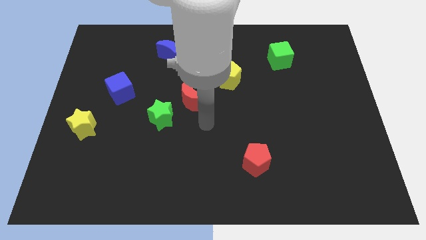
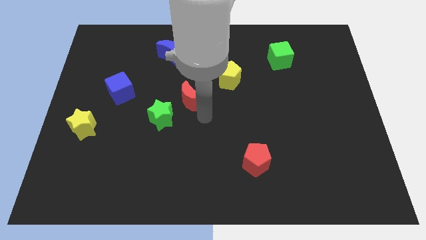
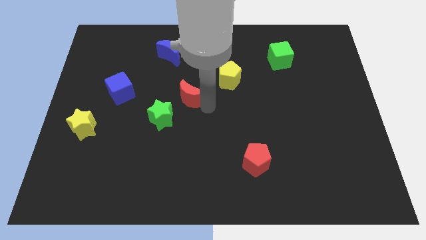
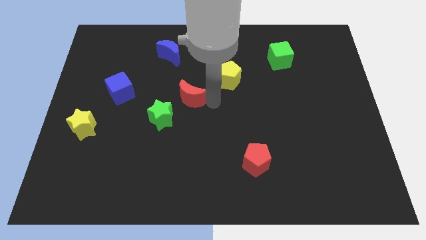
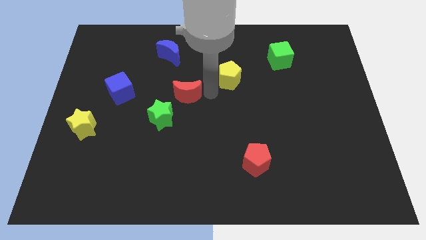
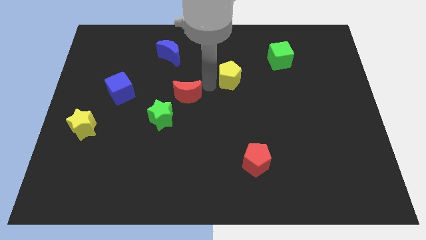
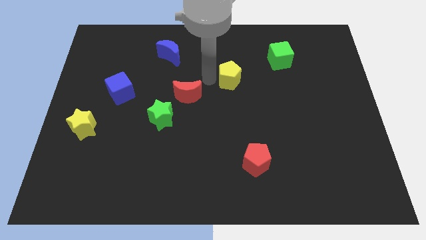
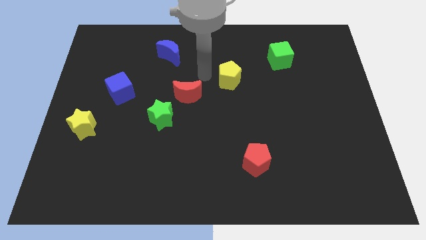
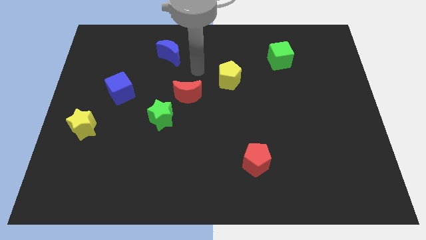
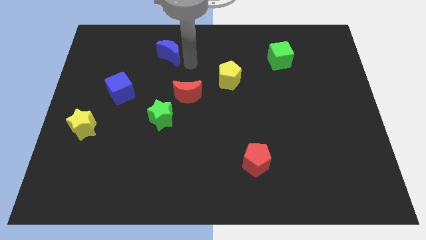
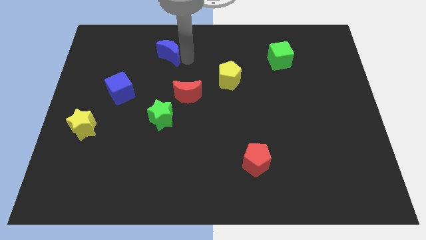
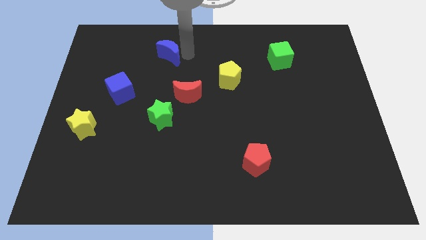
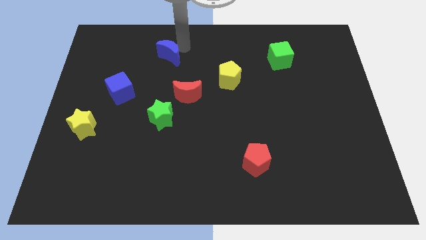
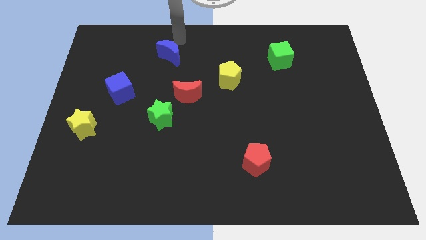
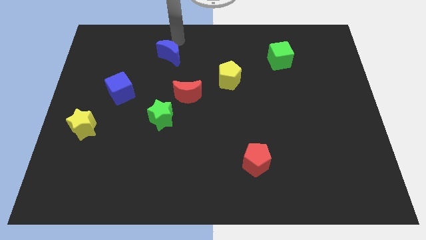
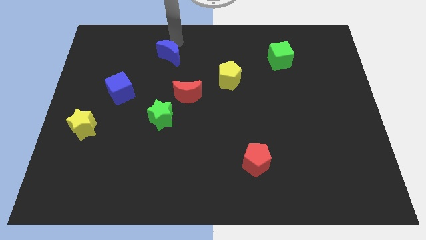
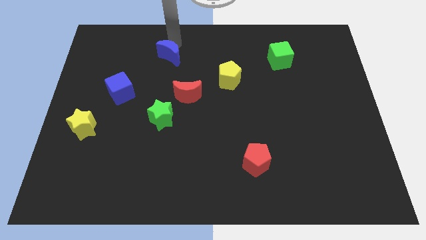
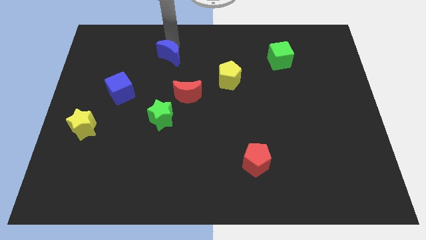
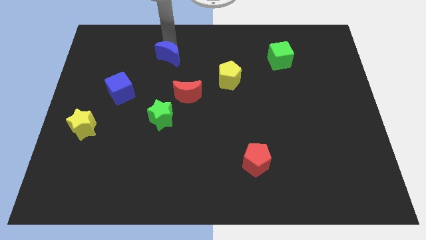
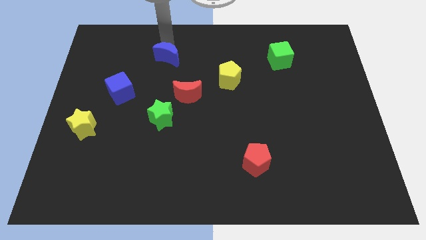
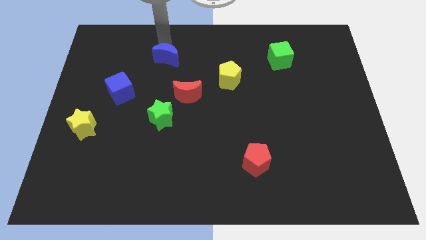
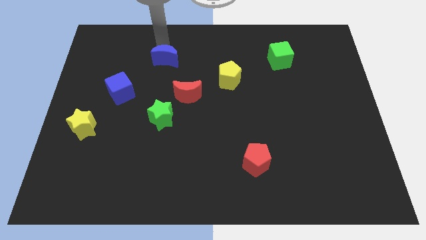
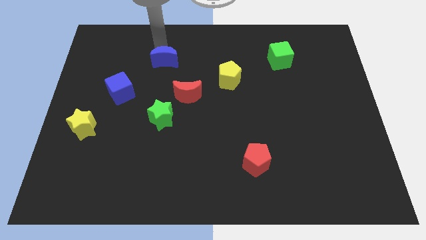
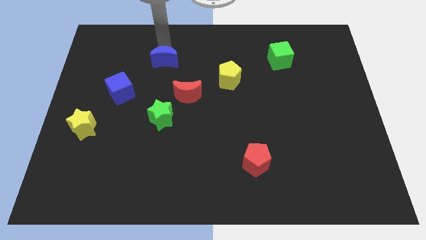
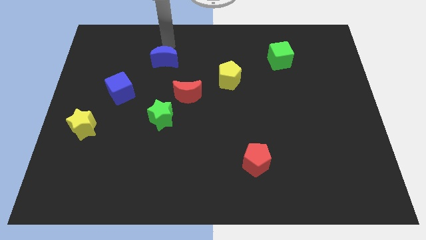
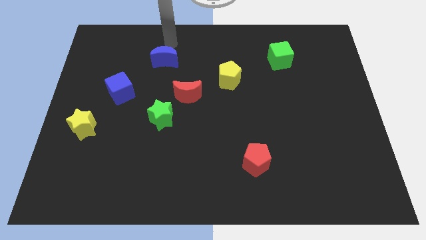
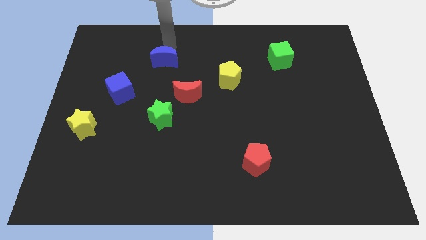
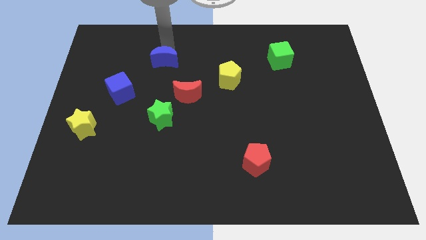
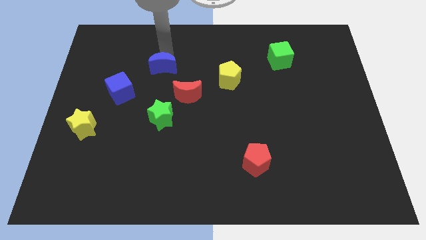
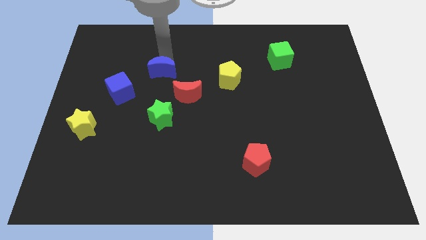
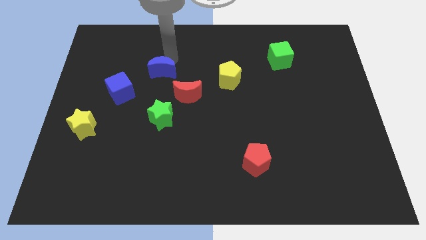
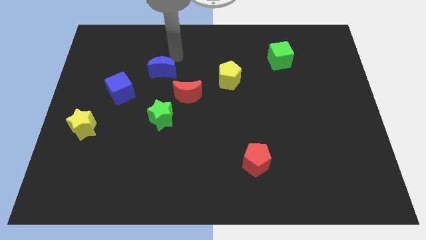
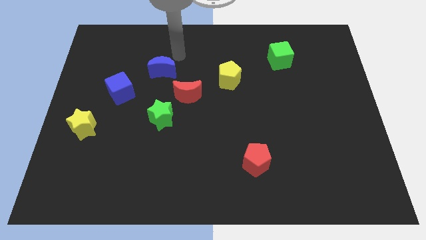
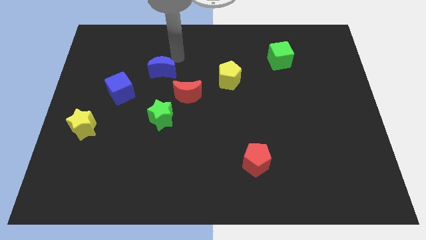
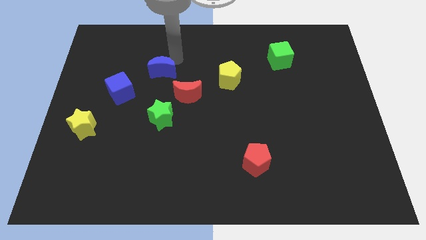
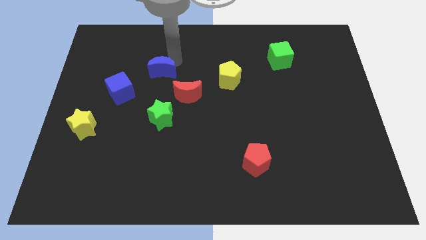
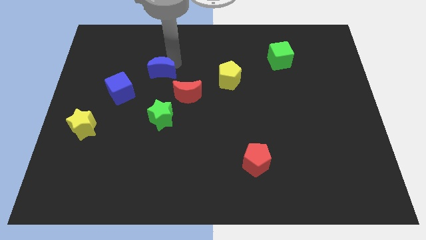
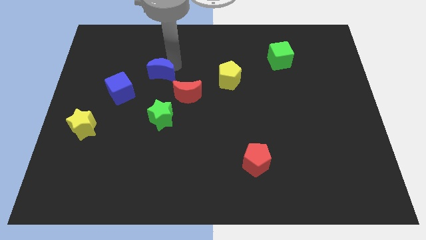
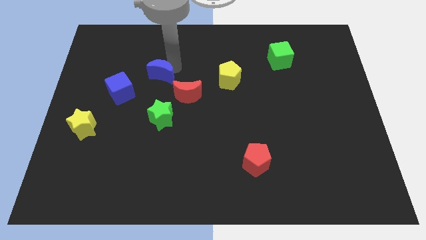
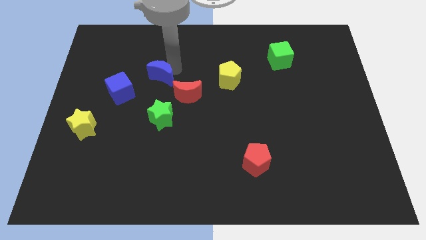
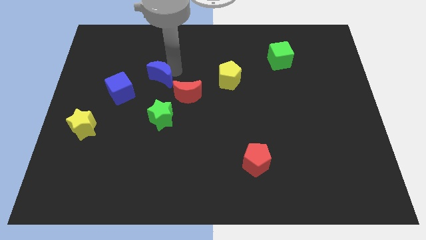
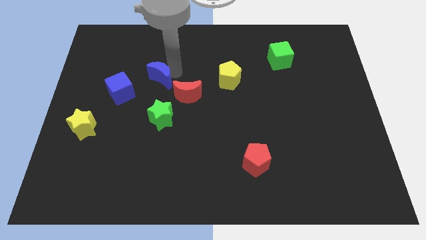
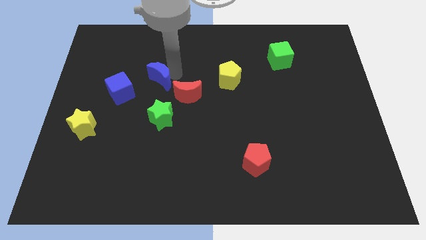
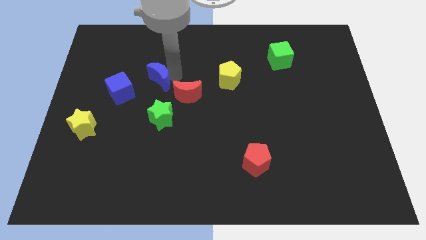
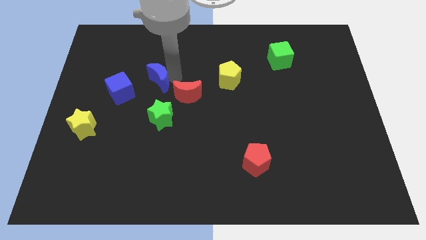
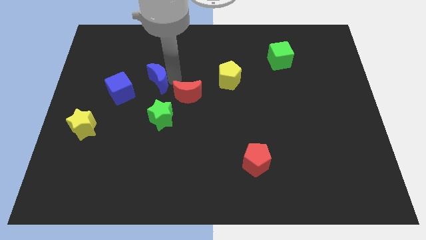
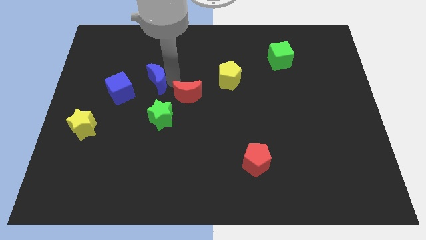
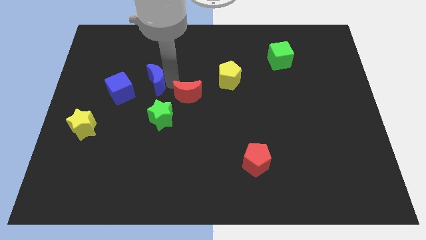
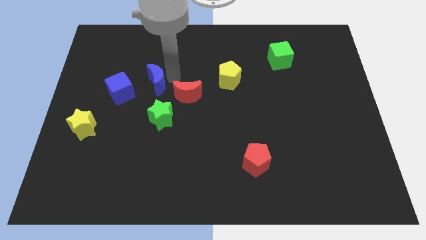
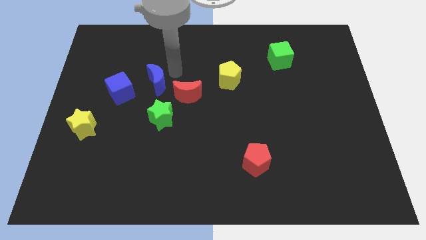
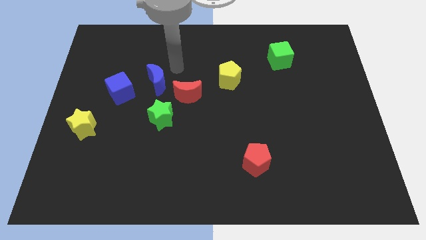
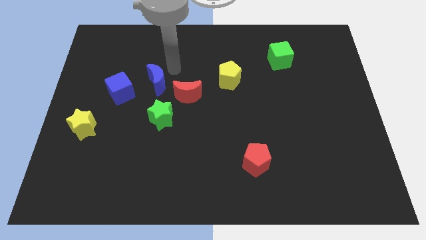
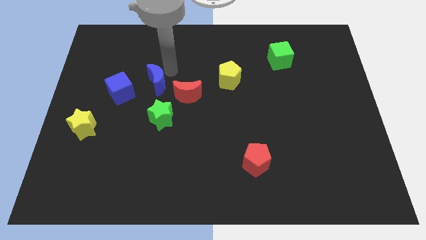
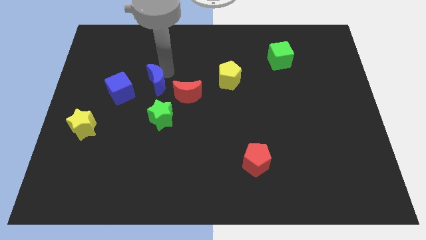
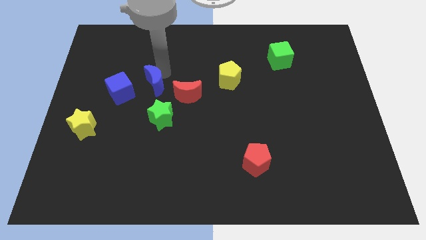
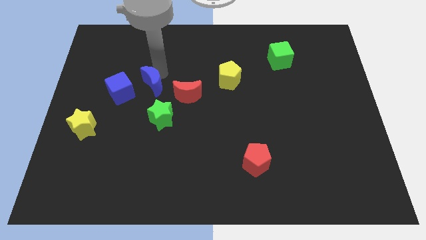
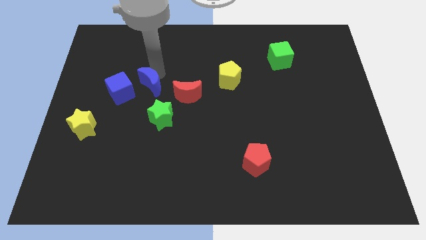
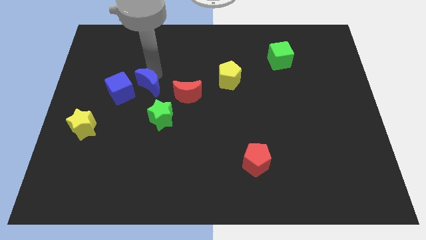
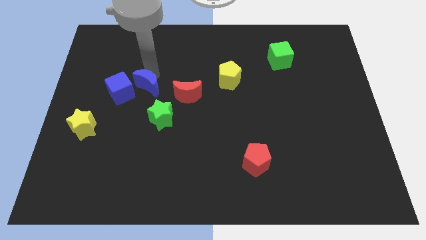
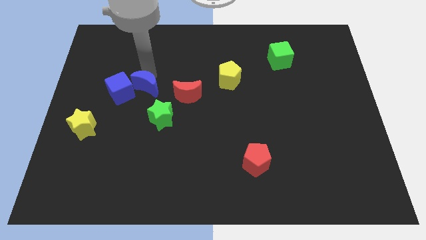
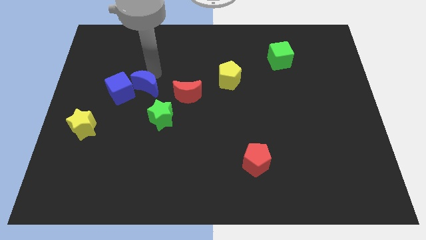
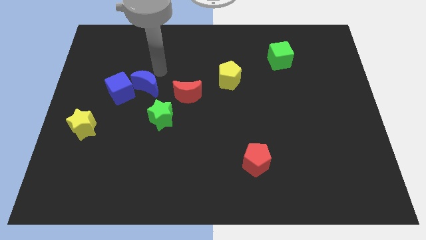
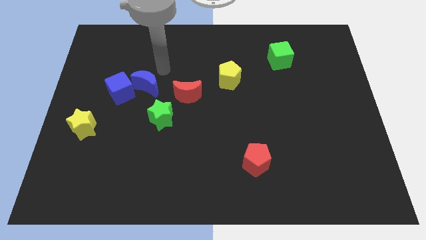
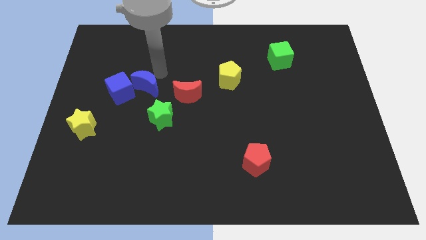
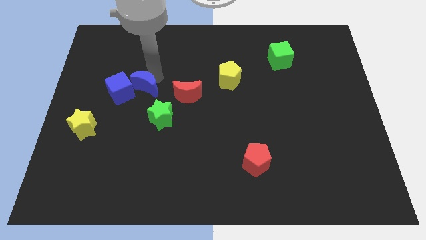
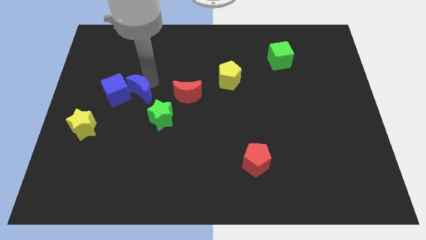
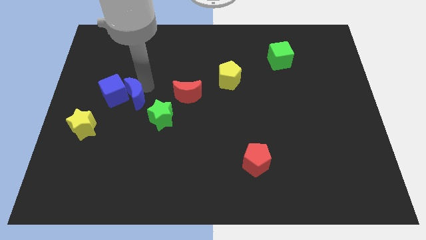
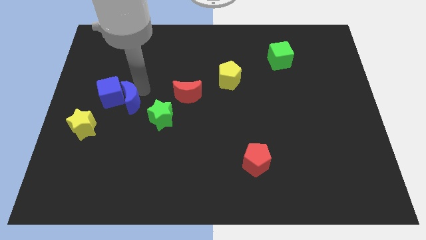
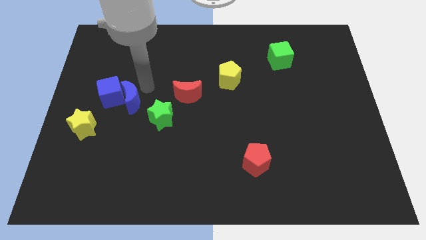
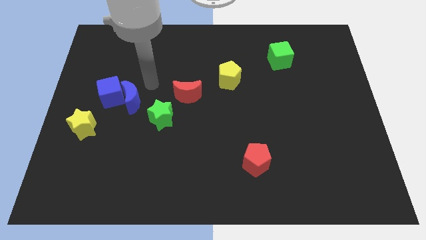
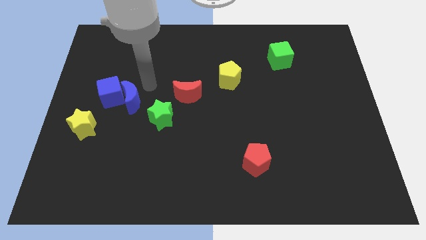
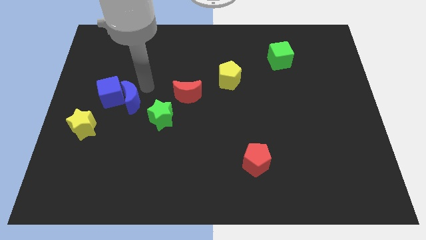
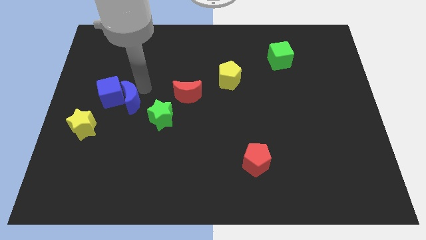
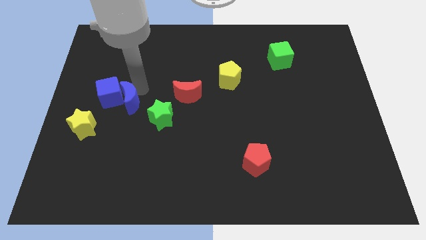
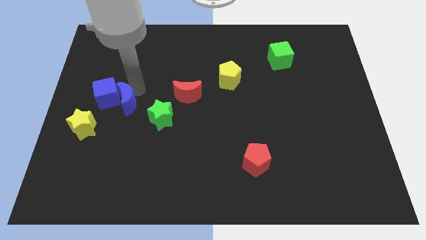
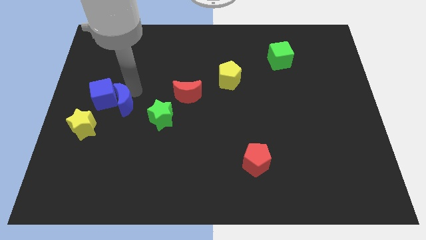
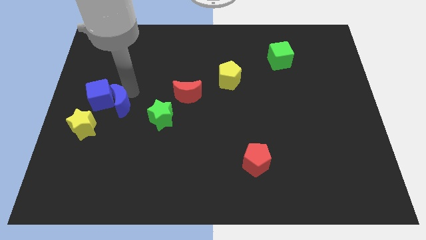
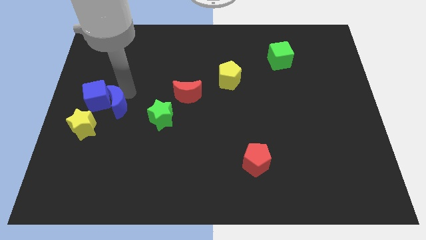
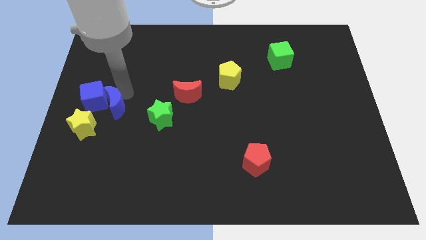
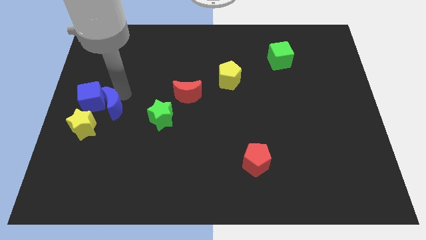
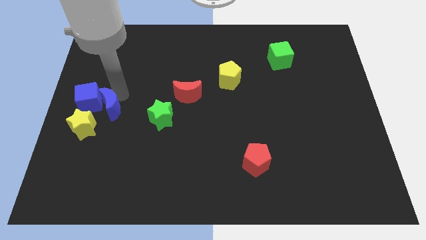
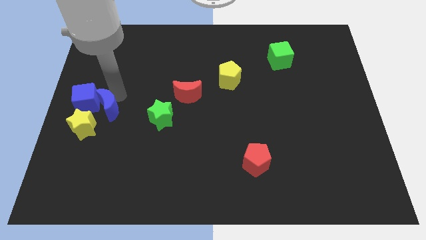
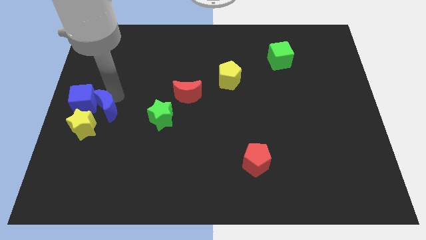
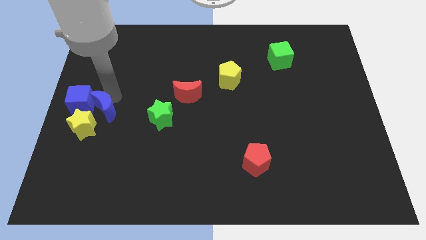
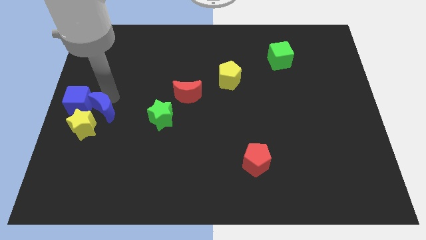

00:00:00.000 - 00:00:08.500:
move the blue moon towards the yellow star
